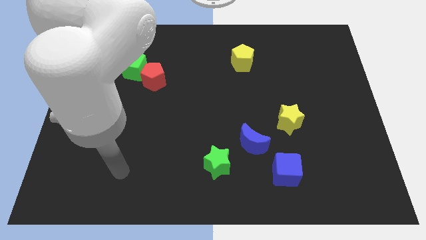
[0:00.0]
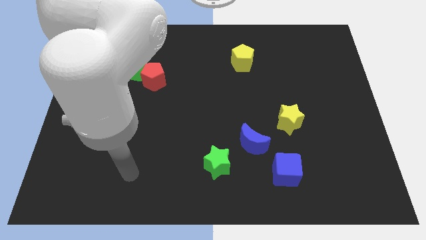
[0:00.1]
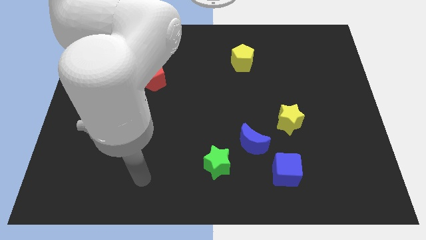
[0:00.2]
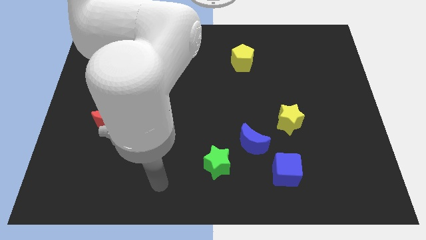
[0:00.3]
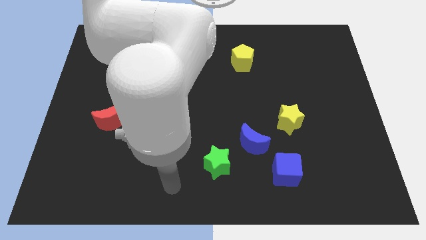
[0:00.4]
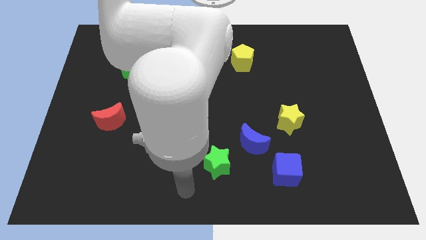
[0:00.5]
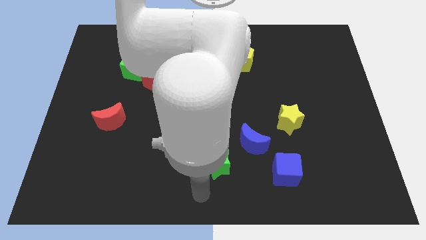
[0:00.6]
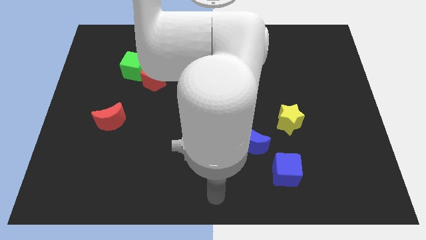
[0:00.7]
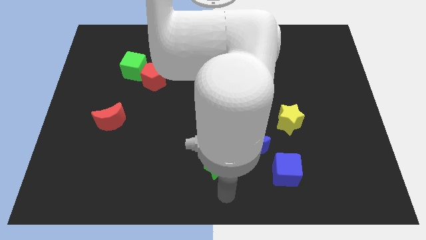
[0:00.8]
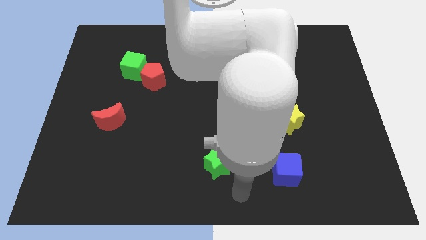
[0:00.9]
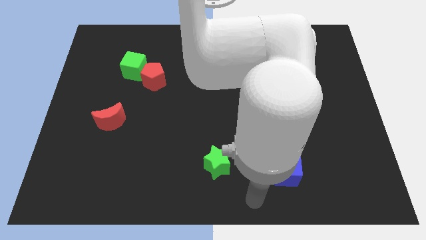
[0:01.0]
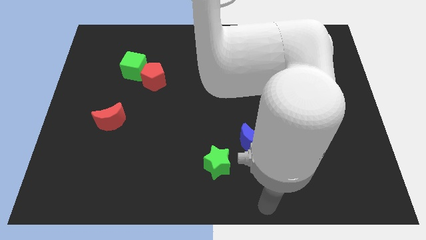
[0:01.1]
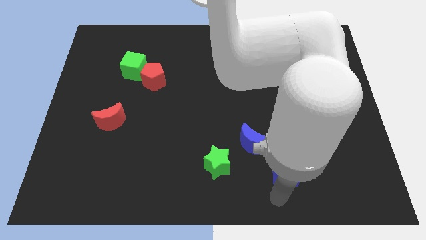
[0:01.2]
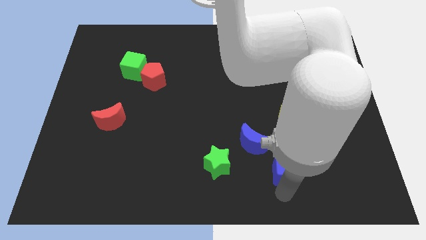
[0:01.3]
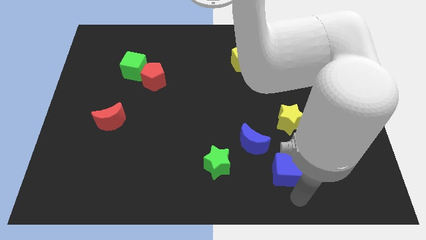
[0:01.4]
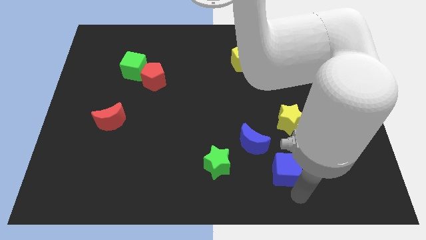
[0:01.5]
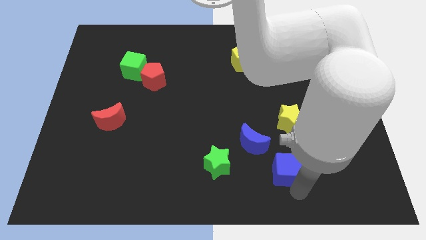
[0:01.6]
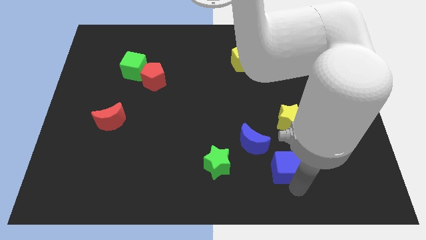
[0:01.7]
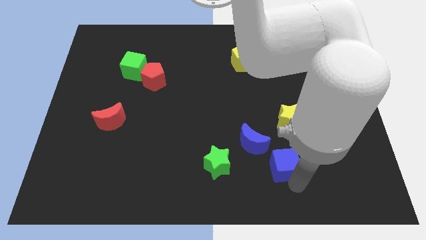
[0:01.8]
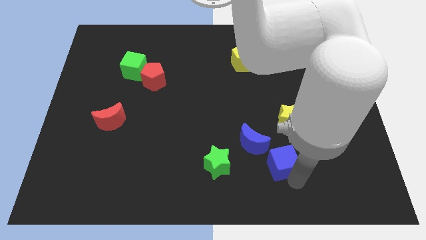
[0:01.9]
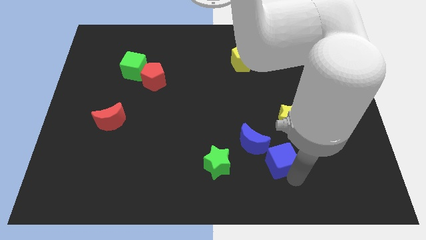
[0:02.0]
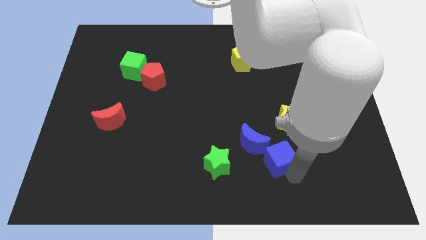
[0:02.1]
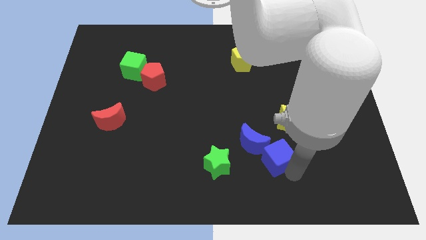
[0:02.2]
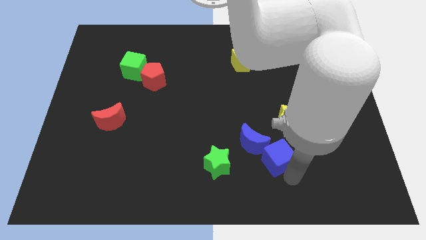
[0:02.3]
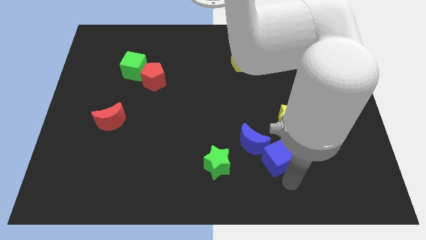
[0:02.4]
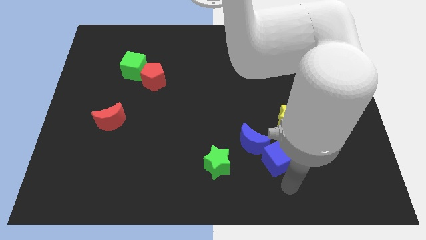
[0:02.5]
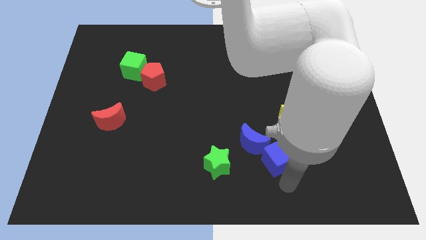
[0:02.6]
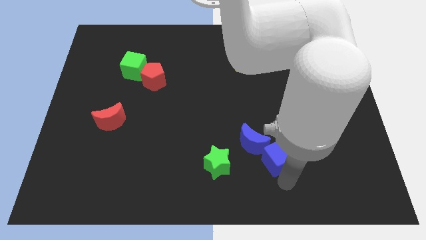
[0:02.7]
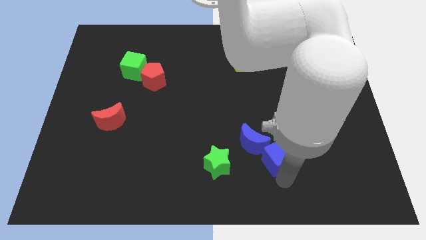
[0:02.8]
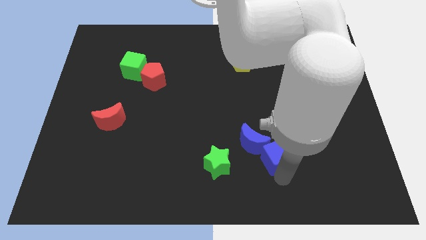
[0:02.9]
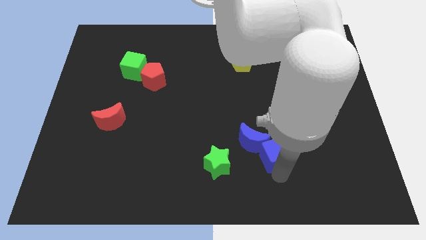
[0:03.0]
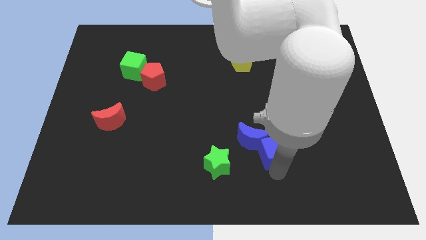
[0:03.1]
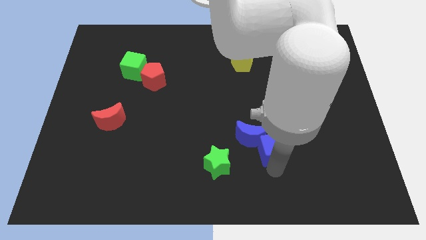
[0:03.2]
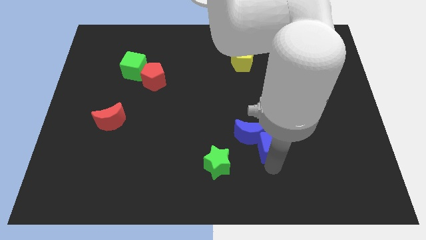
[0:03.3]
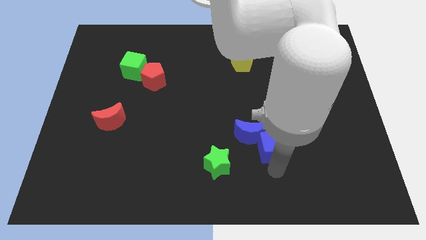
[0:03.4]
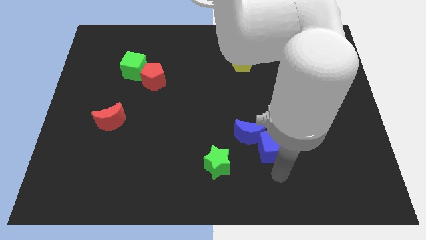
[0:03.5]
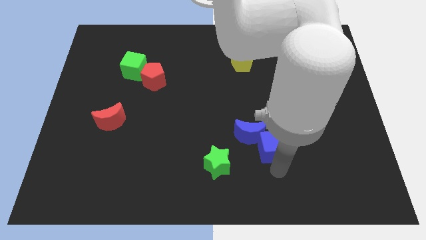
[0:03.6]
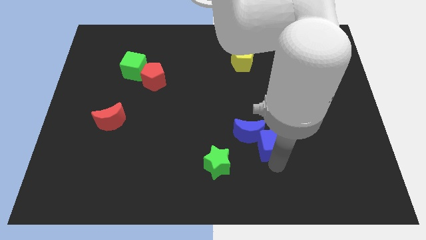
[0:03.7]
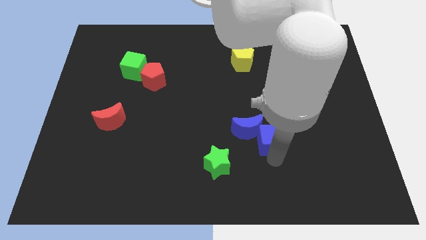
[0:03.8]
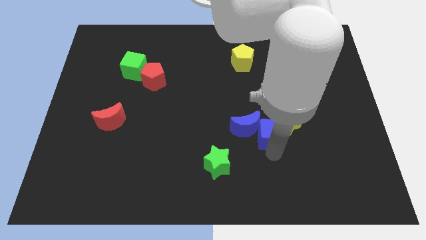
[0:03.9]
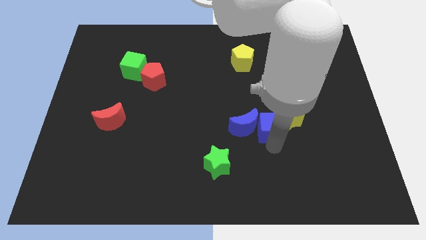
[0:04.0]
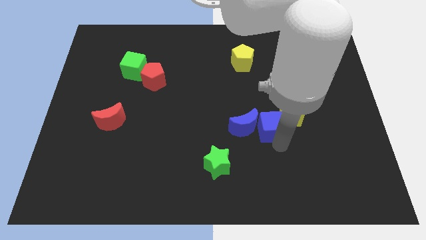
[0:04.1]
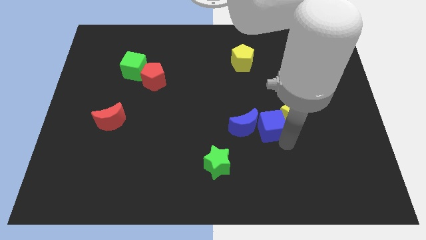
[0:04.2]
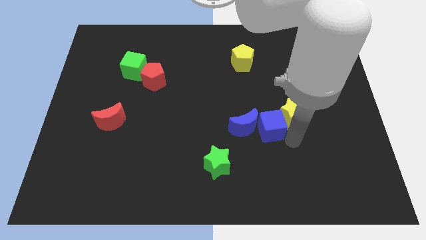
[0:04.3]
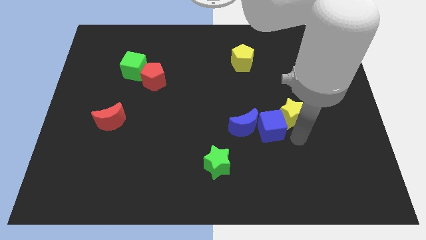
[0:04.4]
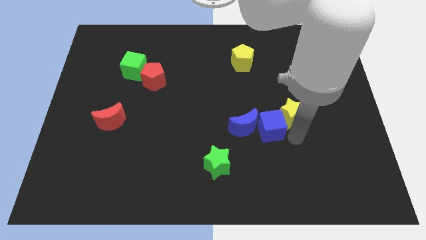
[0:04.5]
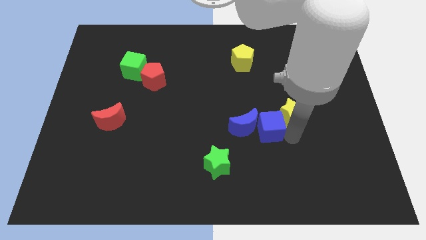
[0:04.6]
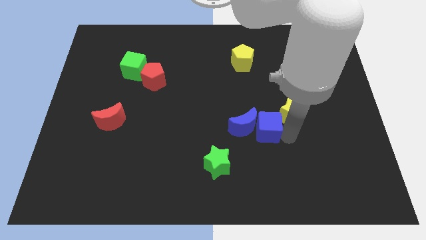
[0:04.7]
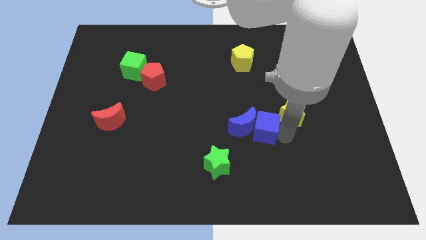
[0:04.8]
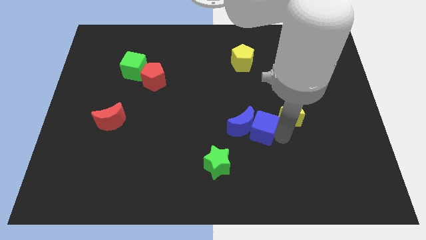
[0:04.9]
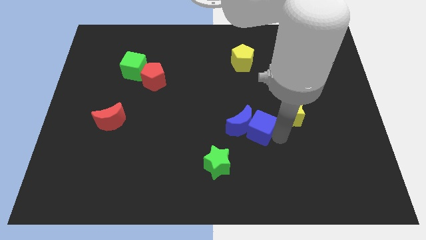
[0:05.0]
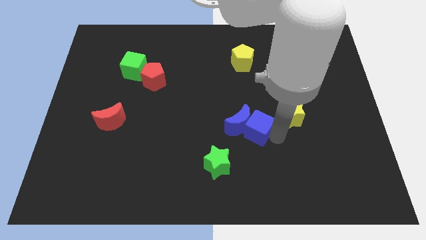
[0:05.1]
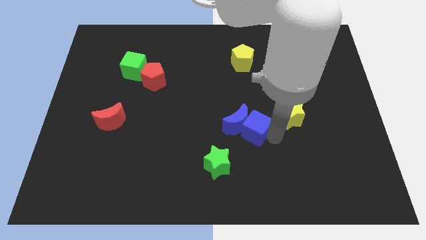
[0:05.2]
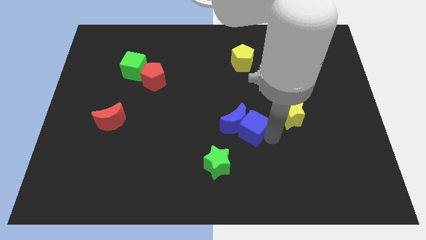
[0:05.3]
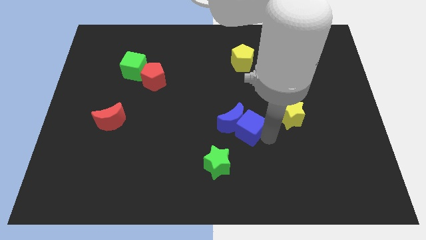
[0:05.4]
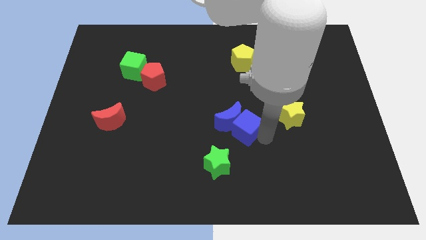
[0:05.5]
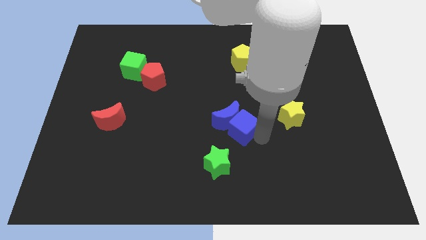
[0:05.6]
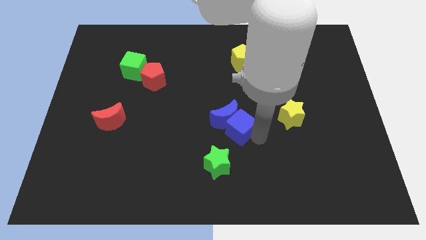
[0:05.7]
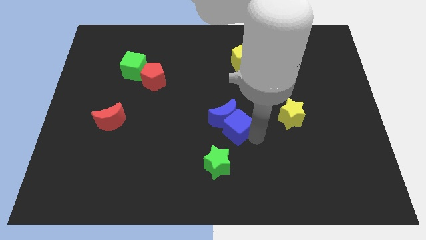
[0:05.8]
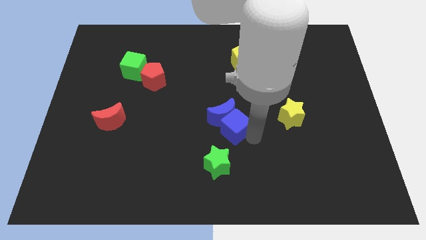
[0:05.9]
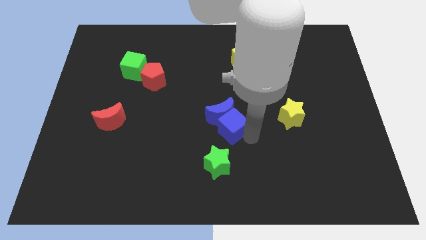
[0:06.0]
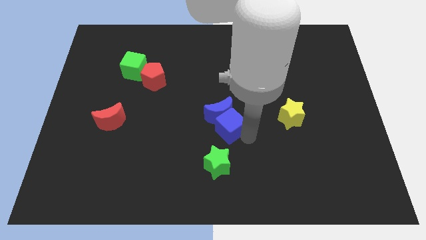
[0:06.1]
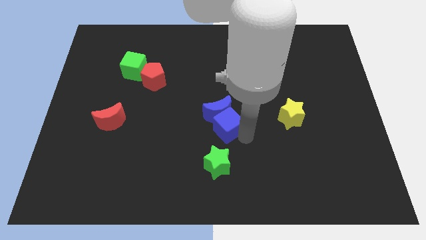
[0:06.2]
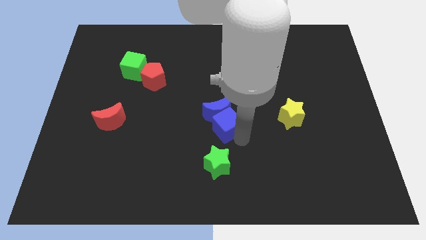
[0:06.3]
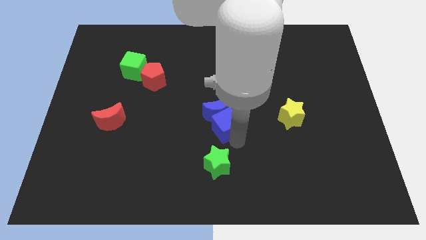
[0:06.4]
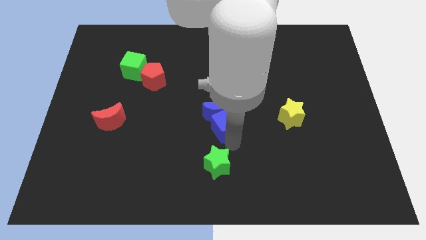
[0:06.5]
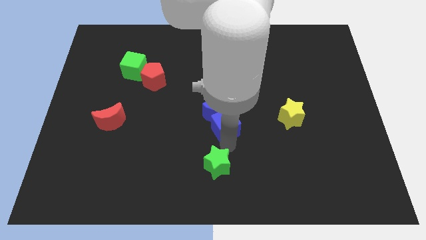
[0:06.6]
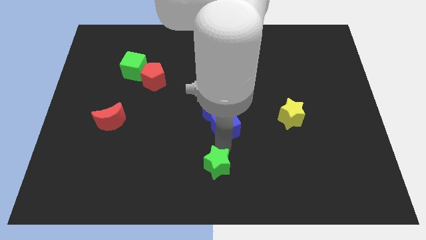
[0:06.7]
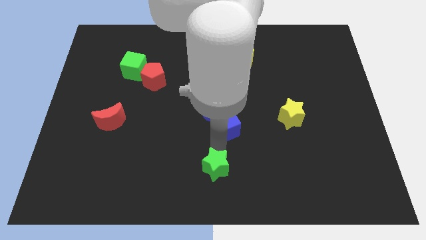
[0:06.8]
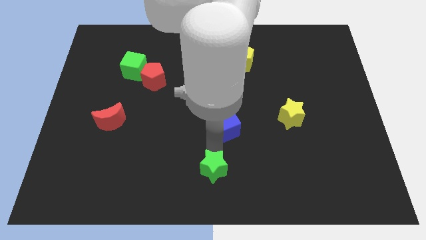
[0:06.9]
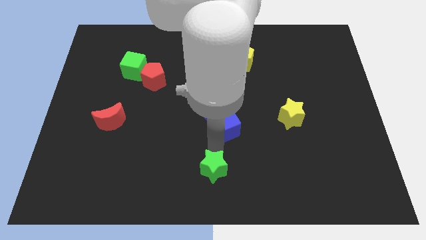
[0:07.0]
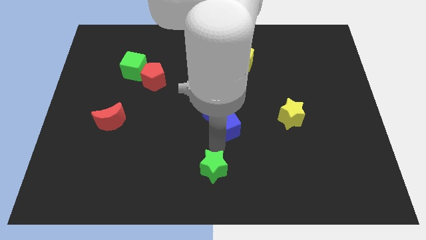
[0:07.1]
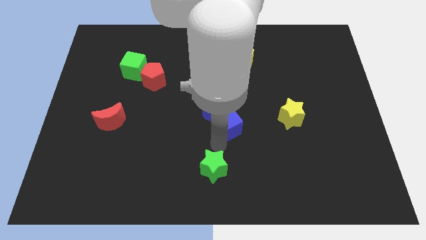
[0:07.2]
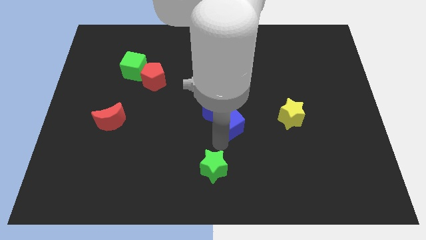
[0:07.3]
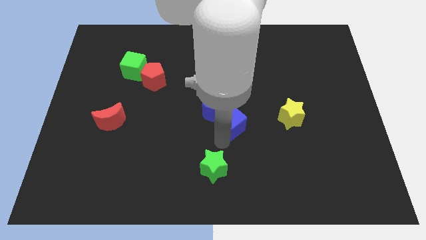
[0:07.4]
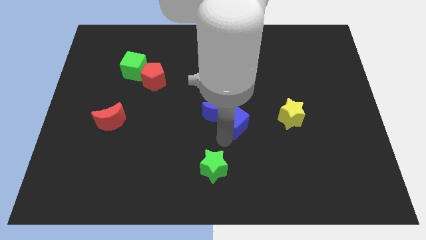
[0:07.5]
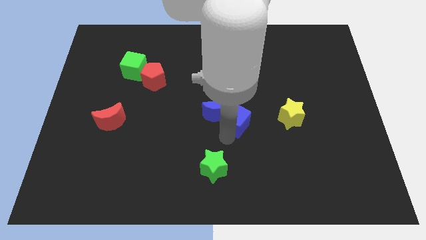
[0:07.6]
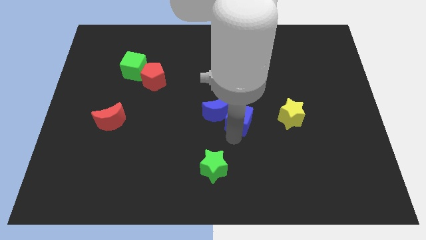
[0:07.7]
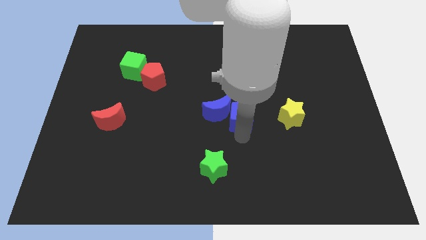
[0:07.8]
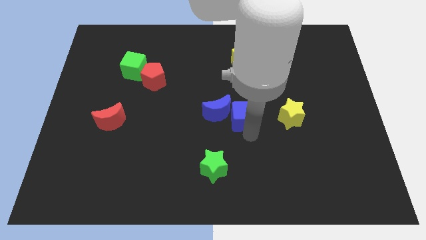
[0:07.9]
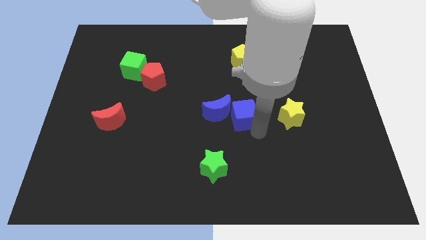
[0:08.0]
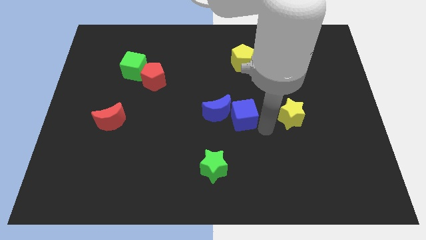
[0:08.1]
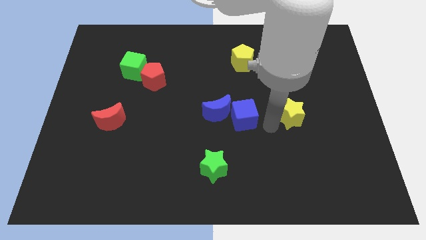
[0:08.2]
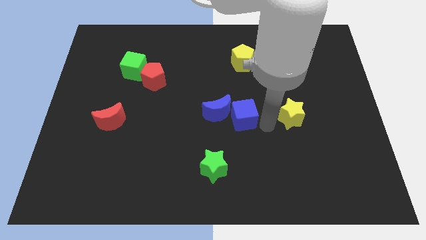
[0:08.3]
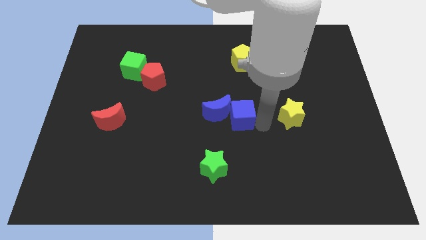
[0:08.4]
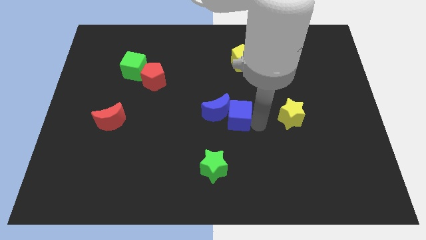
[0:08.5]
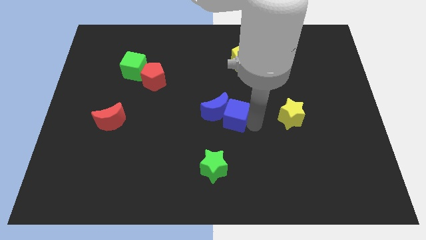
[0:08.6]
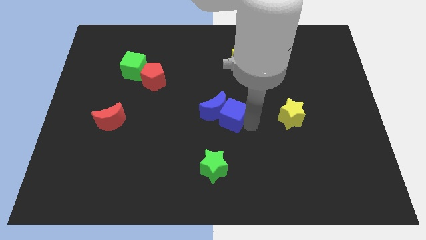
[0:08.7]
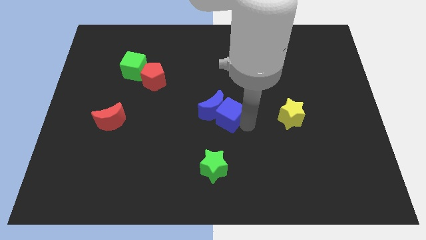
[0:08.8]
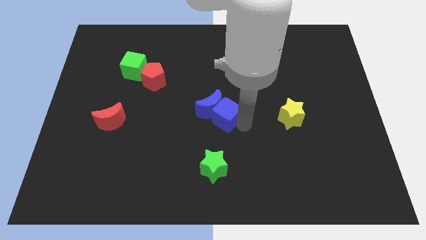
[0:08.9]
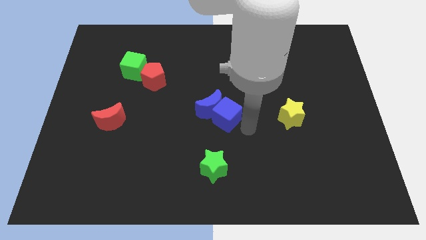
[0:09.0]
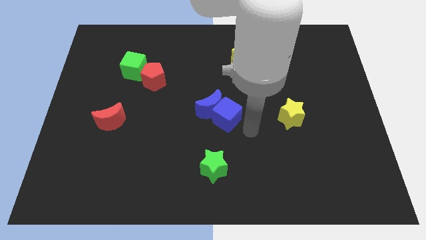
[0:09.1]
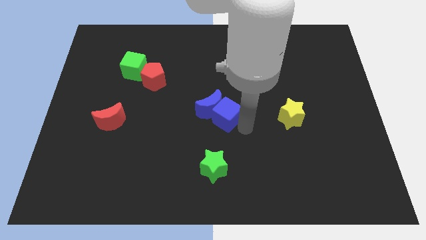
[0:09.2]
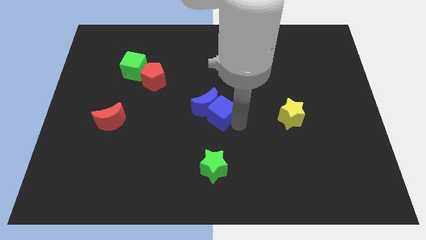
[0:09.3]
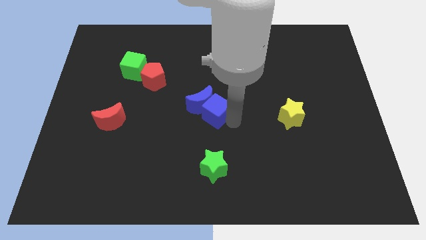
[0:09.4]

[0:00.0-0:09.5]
move the blue cube upwards and left diagonally
